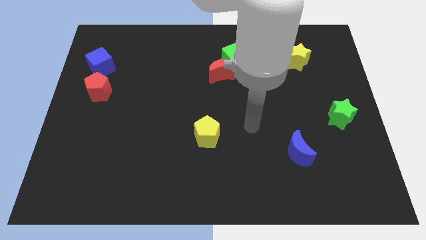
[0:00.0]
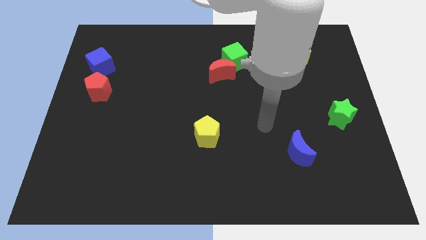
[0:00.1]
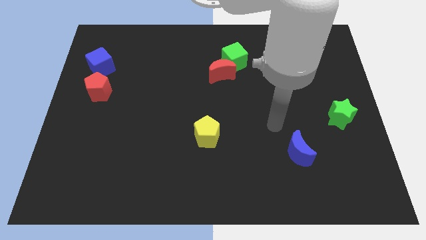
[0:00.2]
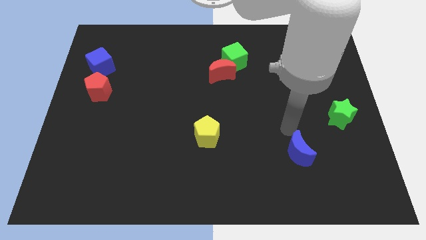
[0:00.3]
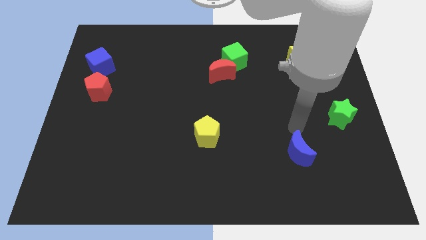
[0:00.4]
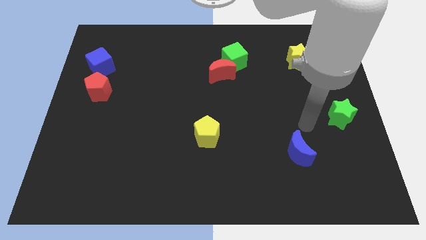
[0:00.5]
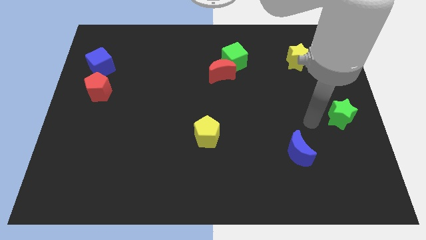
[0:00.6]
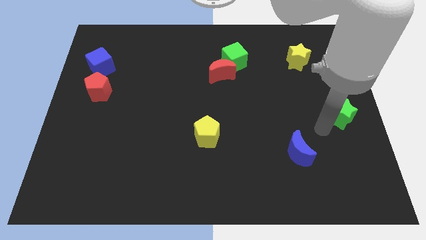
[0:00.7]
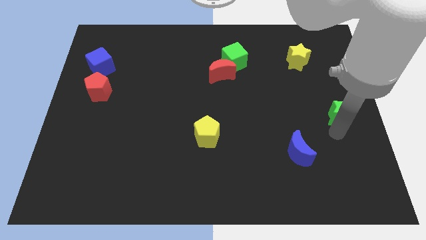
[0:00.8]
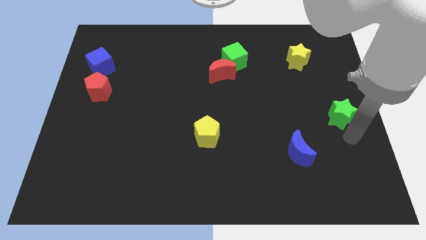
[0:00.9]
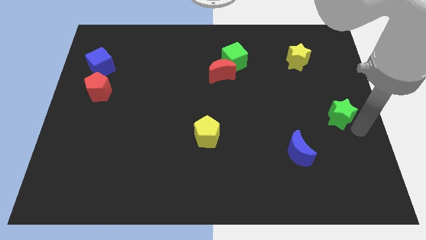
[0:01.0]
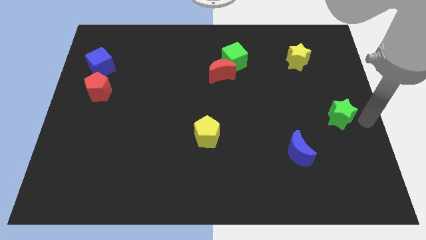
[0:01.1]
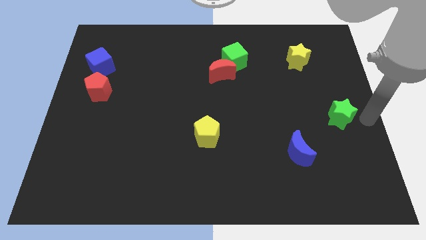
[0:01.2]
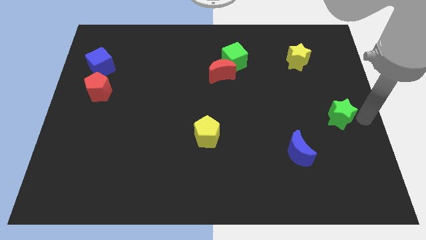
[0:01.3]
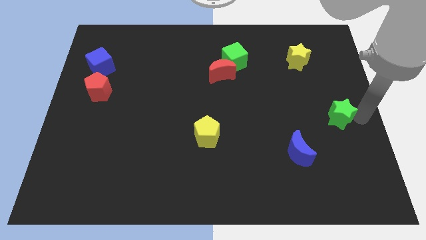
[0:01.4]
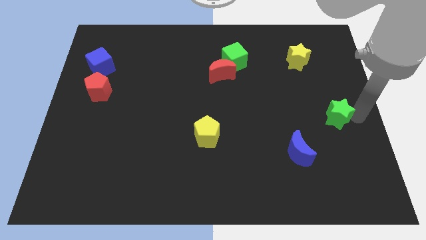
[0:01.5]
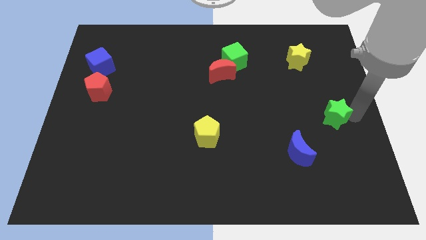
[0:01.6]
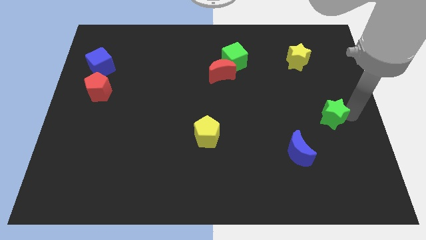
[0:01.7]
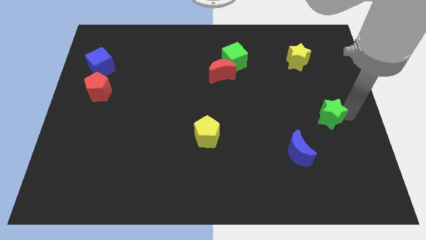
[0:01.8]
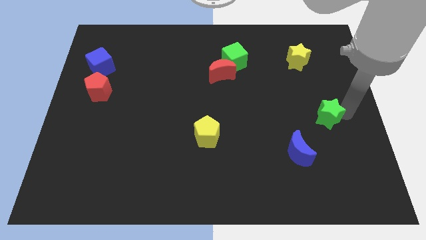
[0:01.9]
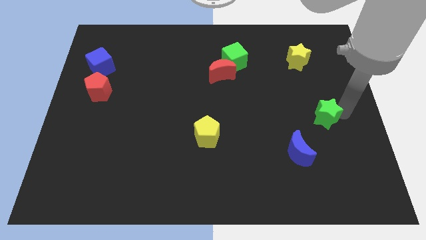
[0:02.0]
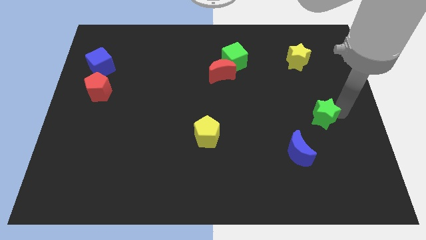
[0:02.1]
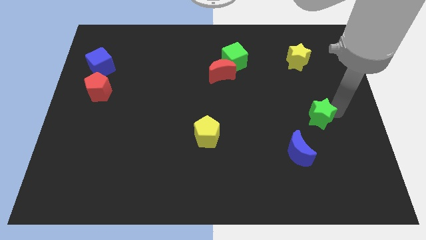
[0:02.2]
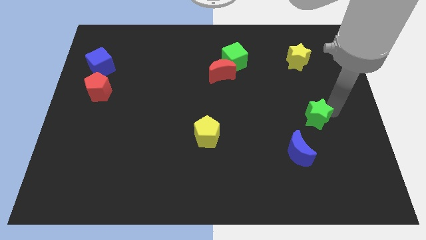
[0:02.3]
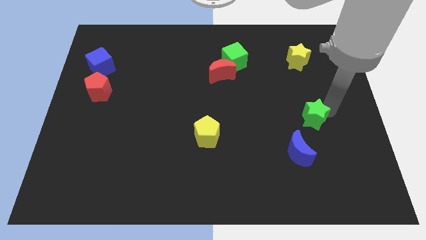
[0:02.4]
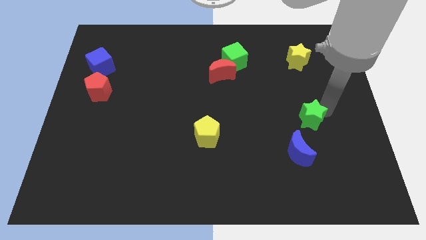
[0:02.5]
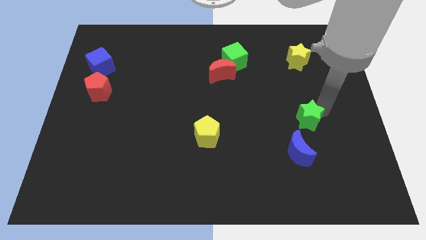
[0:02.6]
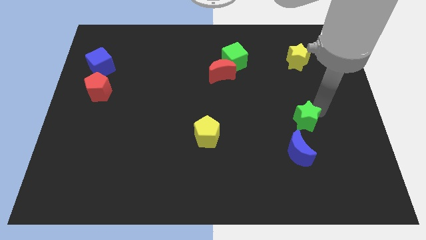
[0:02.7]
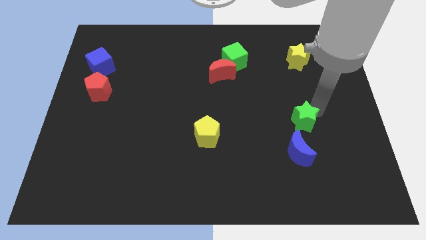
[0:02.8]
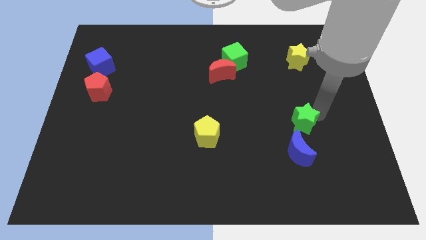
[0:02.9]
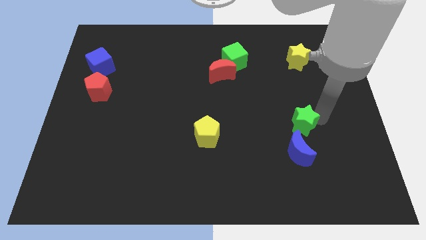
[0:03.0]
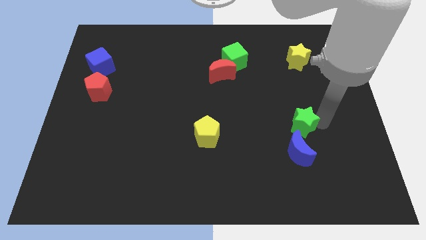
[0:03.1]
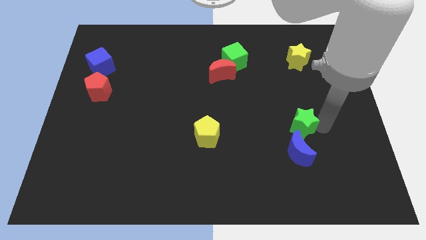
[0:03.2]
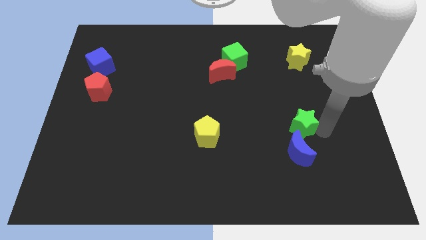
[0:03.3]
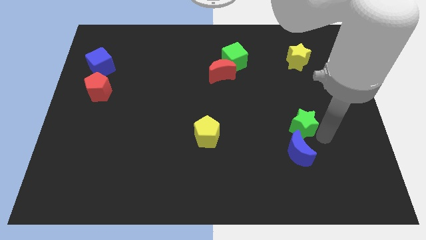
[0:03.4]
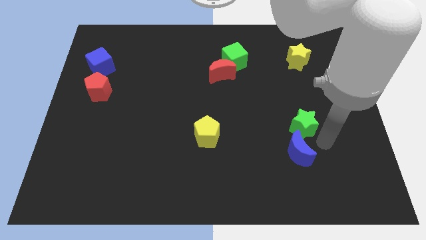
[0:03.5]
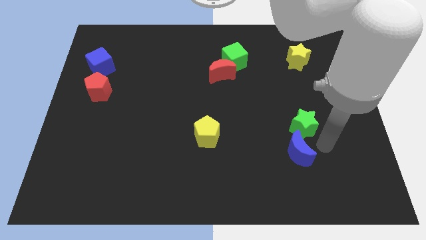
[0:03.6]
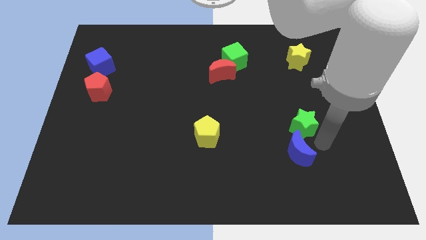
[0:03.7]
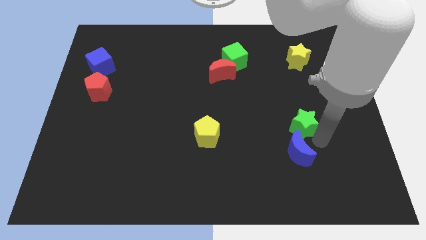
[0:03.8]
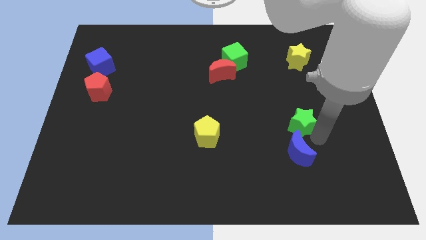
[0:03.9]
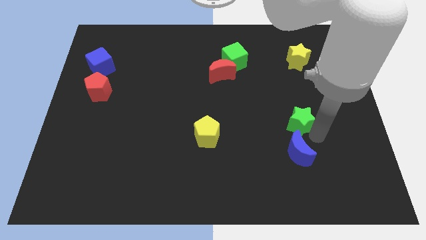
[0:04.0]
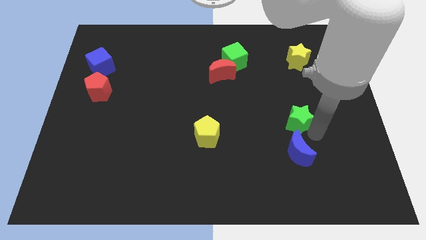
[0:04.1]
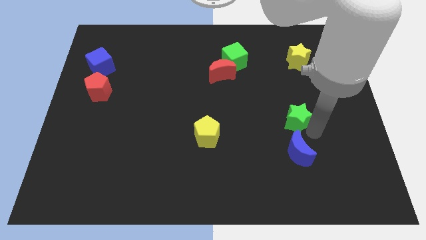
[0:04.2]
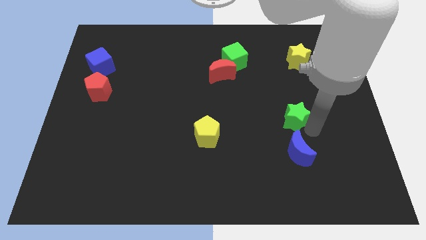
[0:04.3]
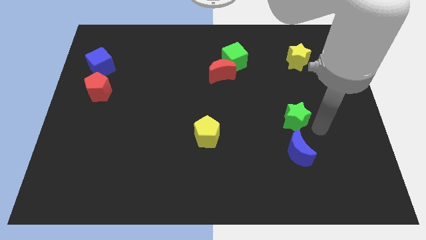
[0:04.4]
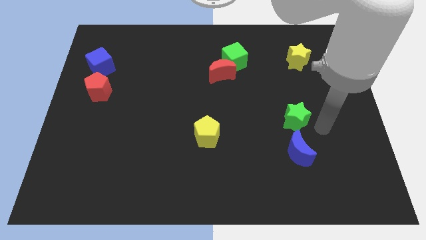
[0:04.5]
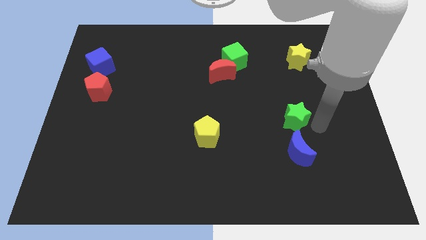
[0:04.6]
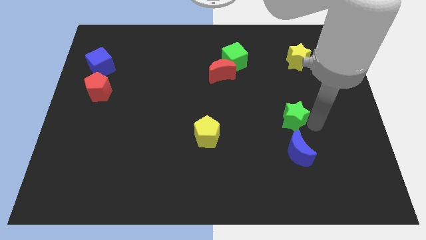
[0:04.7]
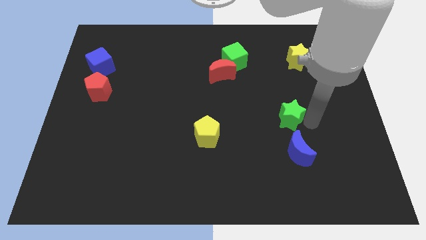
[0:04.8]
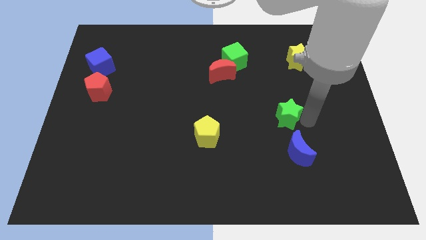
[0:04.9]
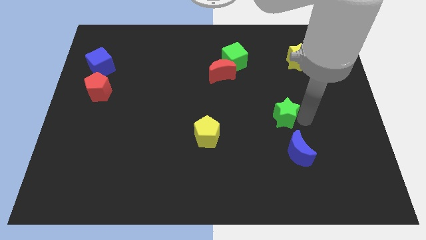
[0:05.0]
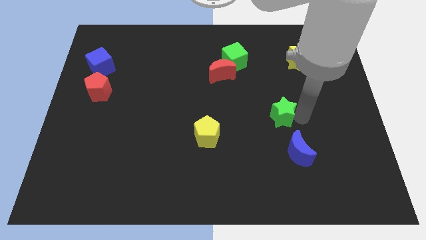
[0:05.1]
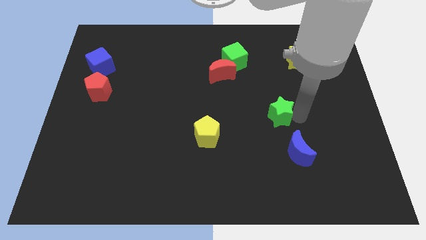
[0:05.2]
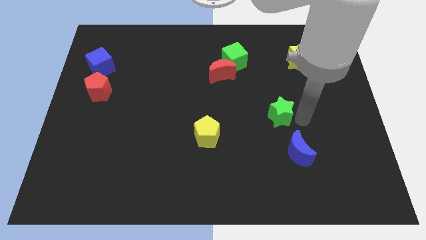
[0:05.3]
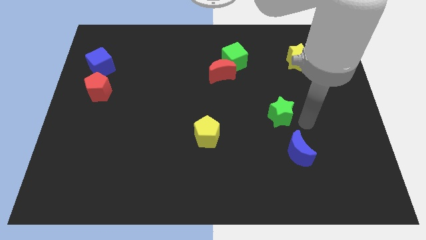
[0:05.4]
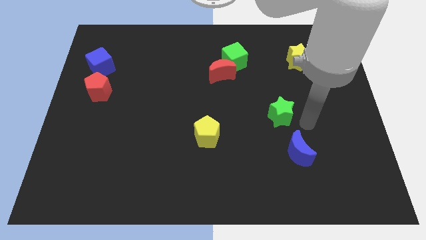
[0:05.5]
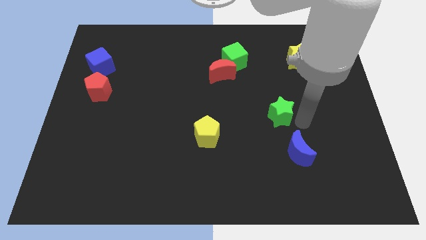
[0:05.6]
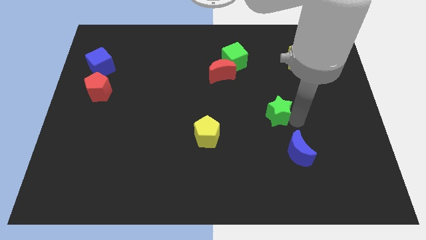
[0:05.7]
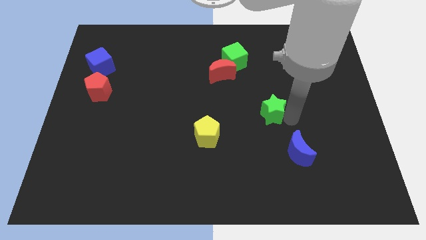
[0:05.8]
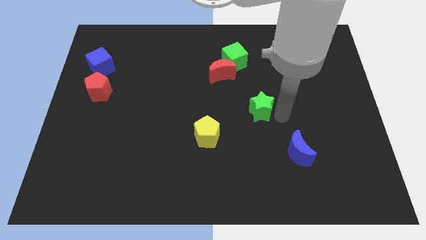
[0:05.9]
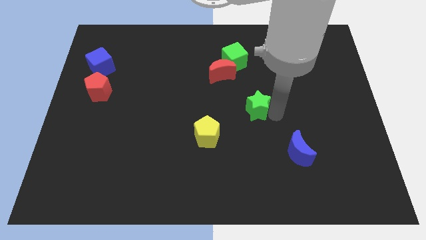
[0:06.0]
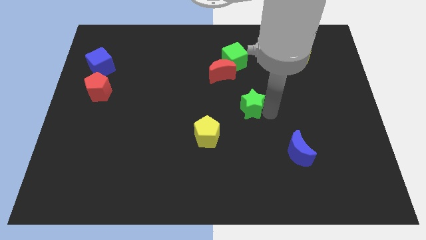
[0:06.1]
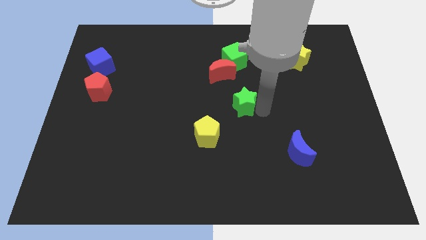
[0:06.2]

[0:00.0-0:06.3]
slide the green star to the bottom of the red moon
